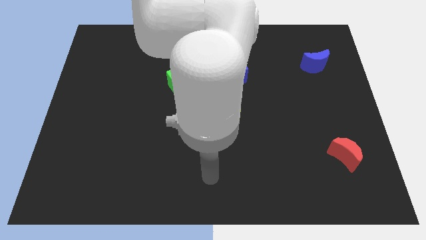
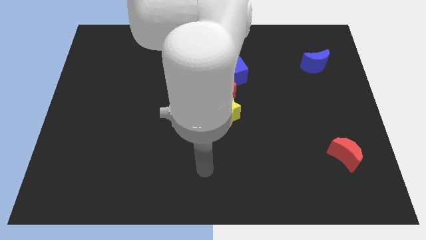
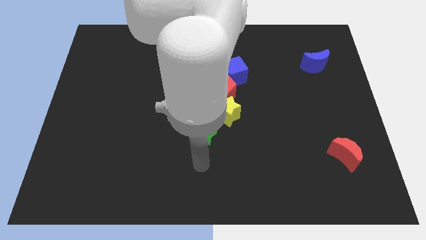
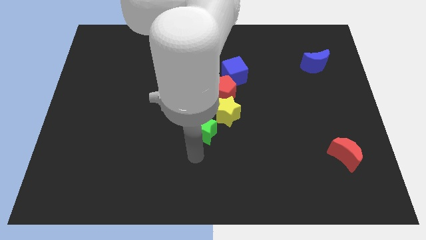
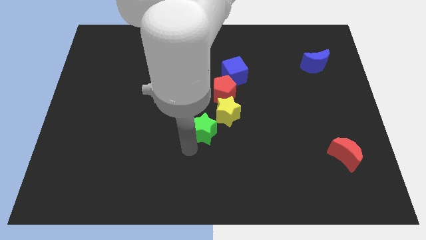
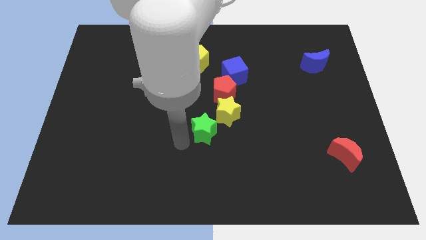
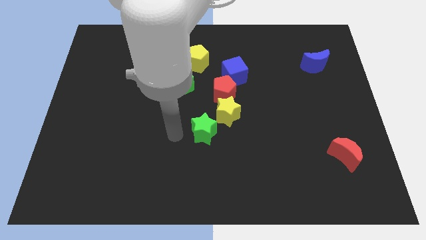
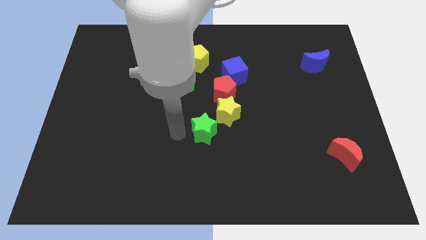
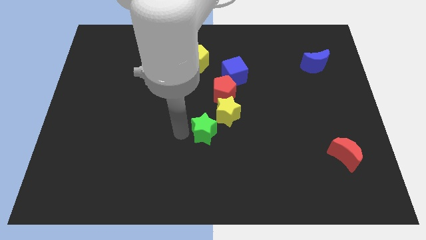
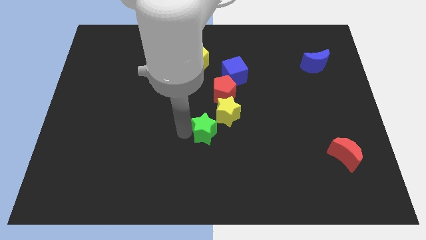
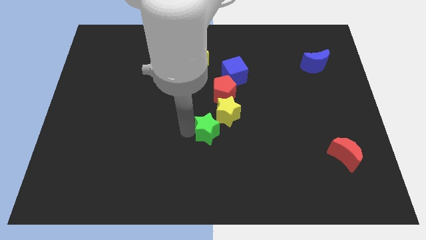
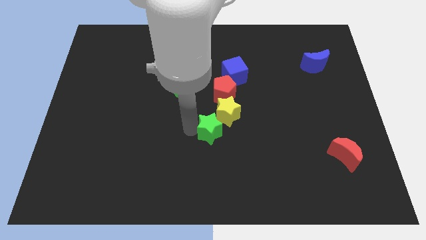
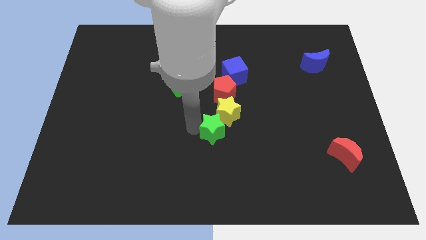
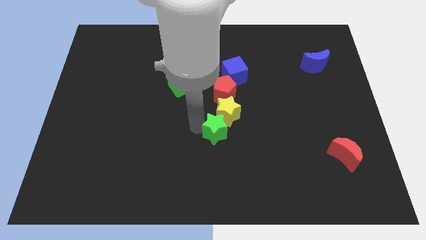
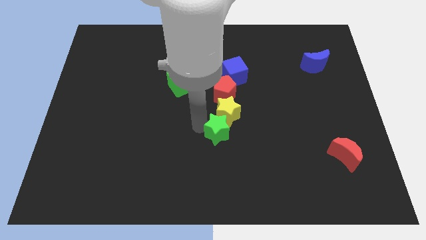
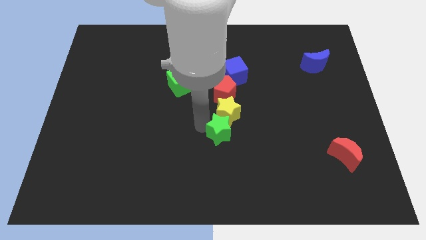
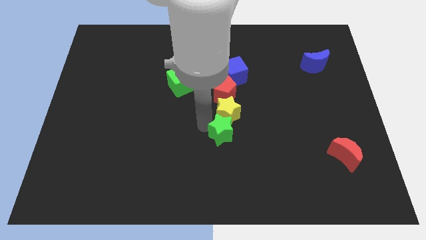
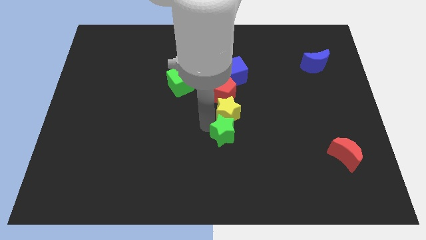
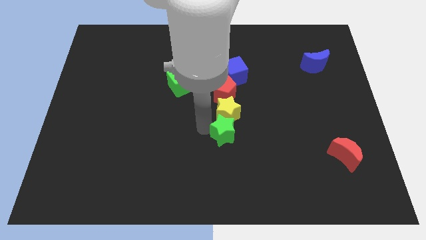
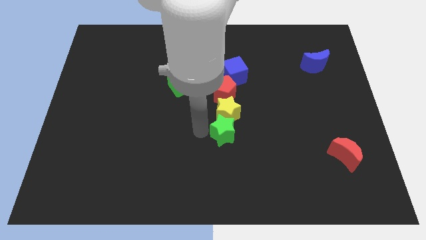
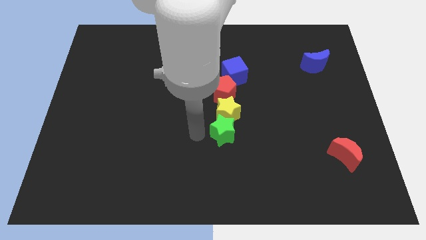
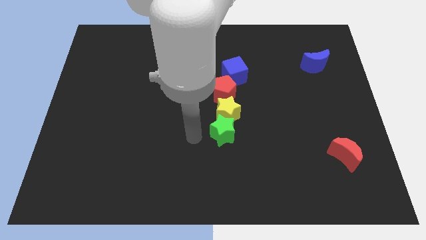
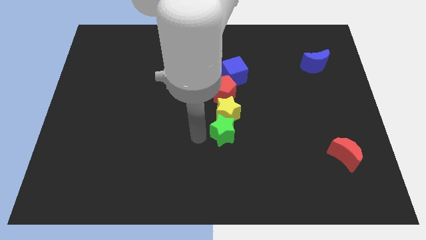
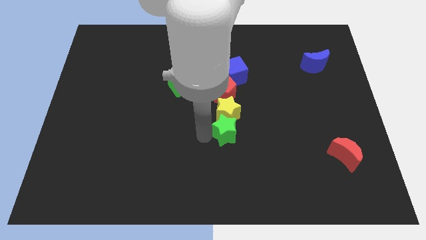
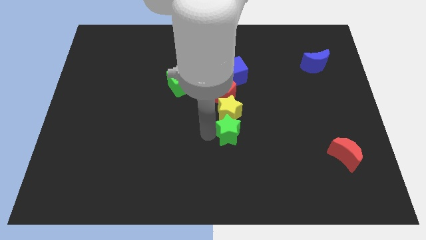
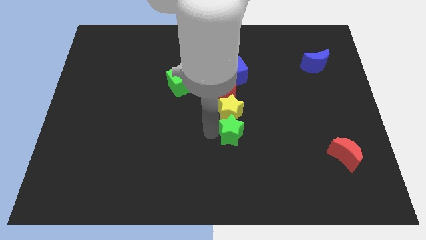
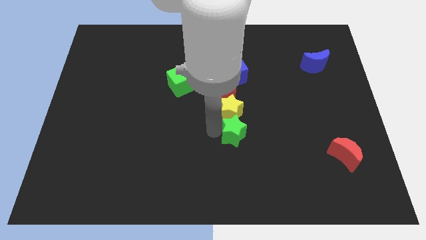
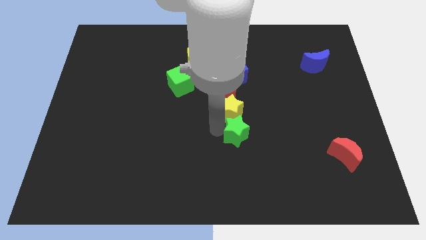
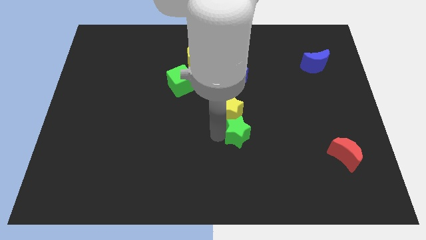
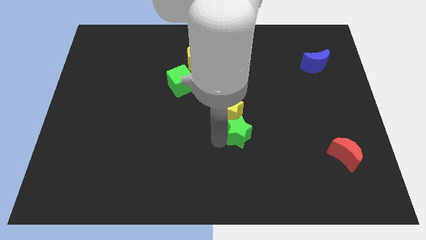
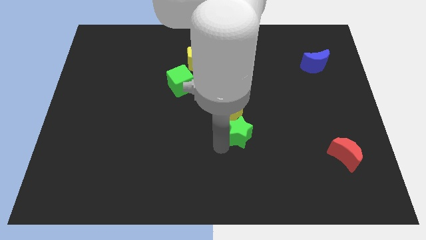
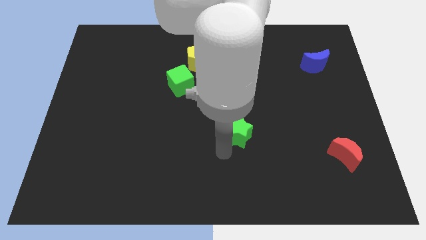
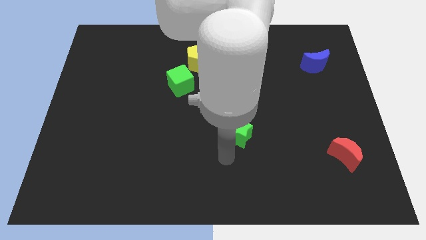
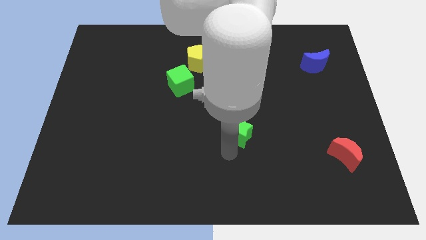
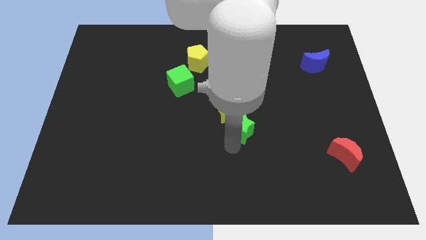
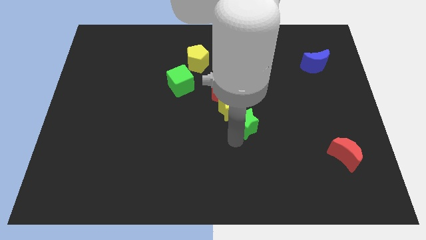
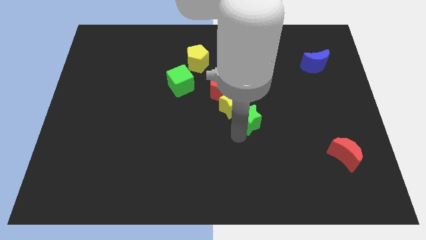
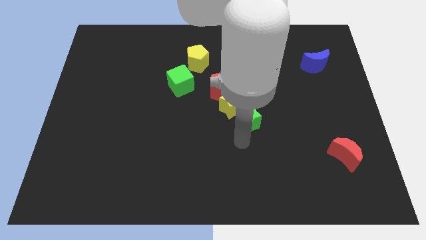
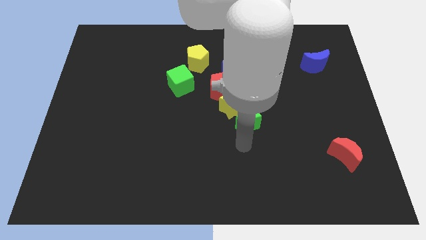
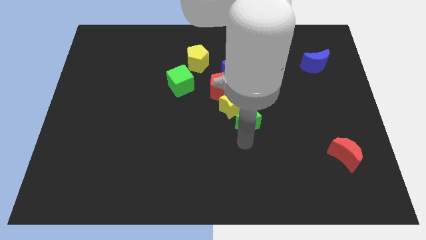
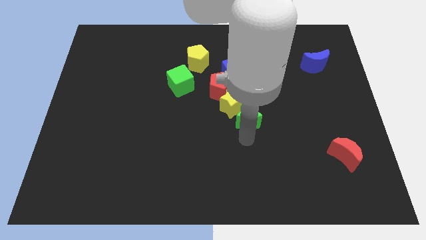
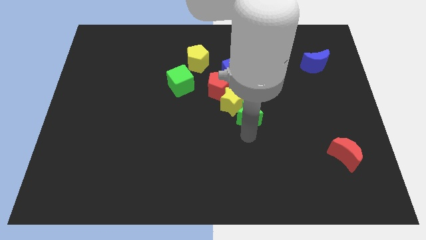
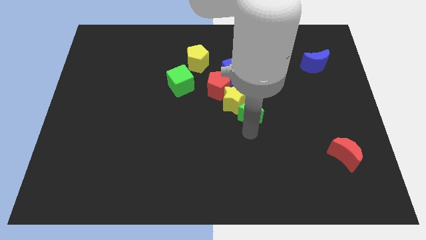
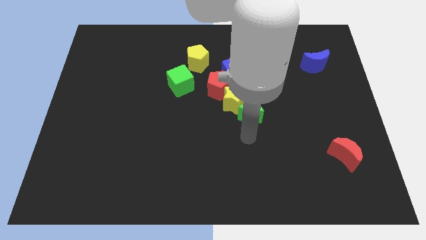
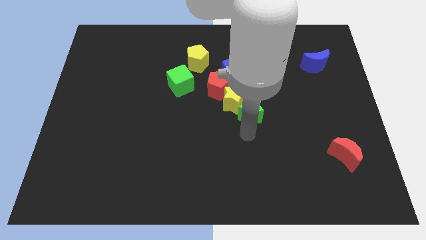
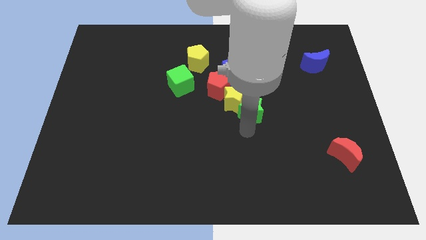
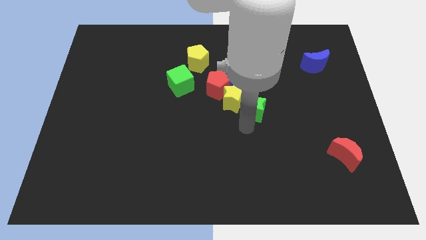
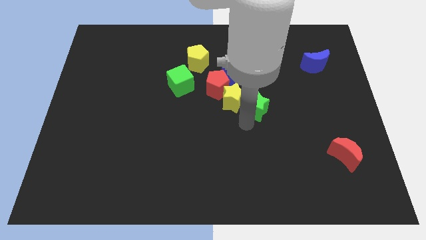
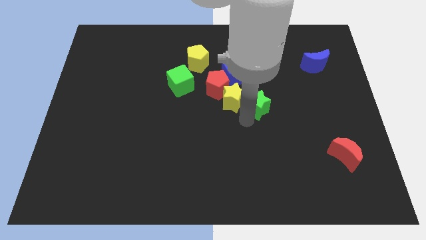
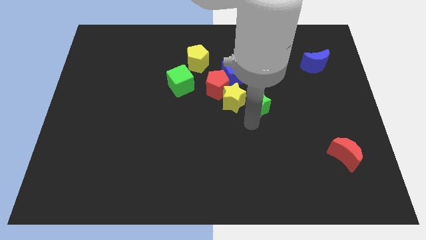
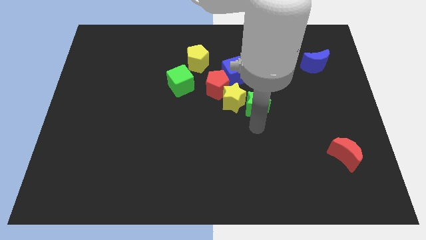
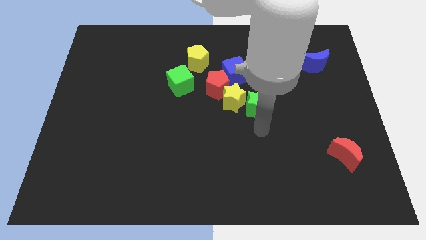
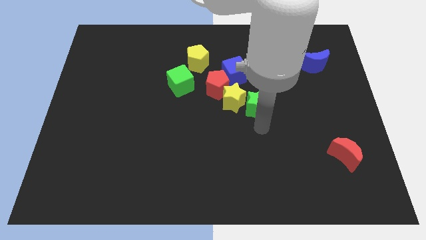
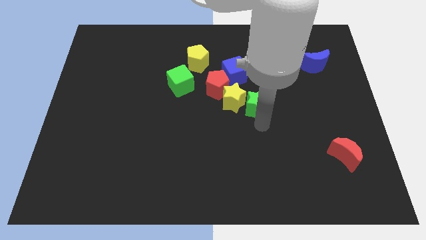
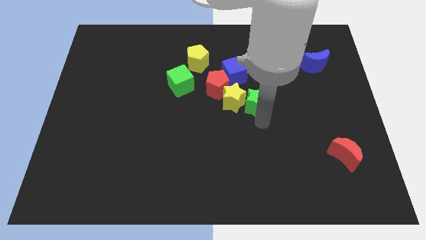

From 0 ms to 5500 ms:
push the green star diagonally up and to the right of the yellow star

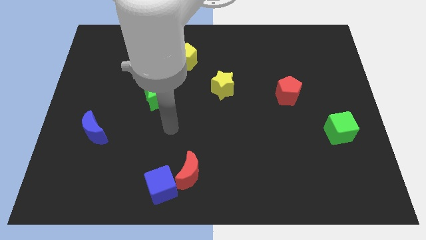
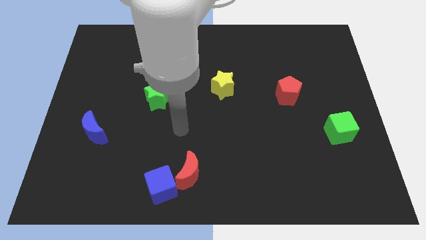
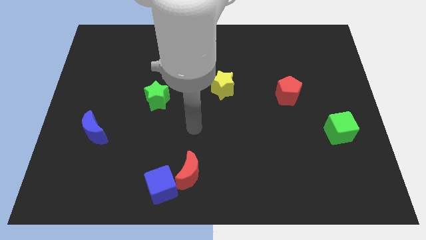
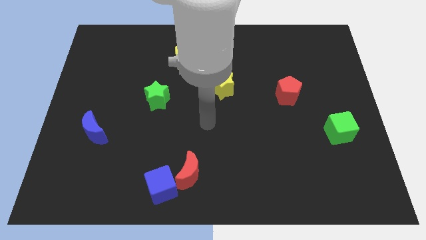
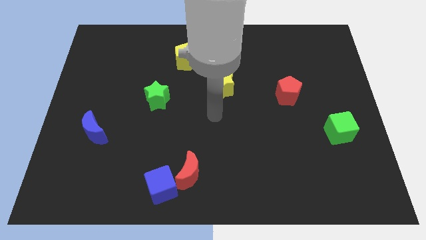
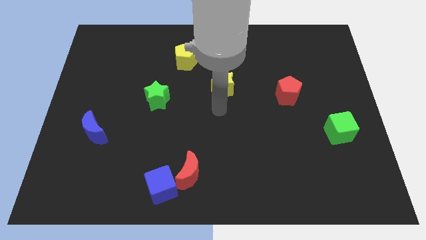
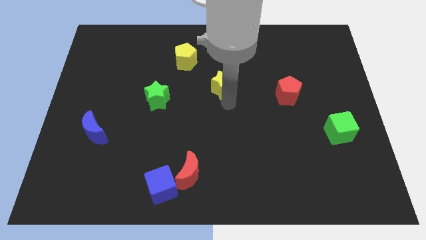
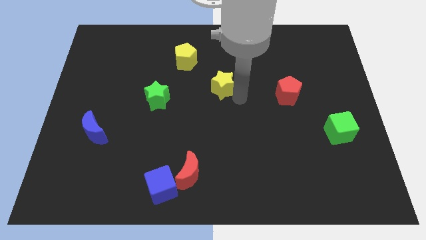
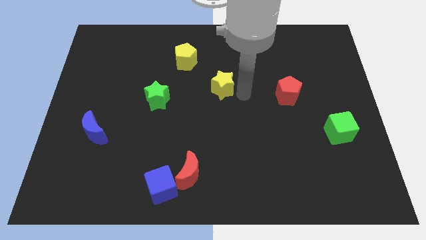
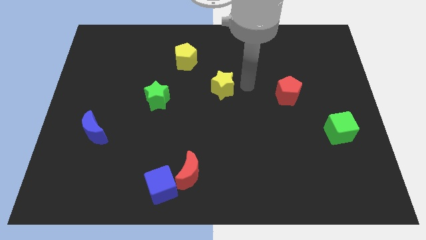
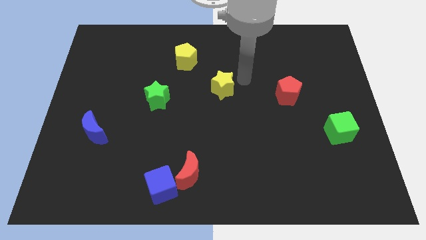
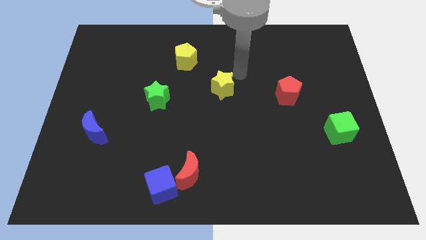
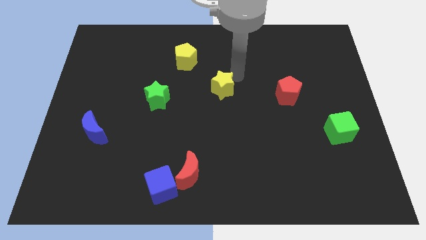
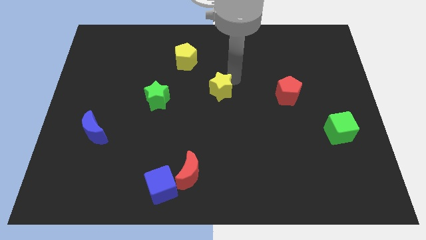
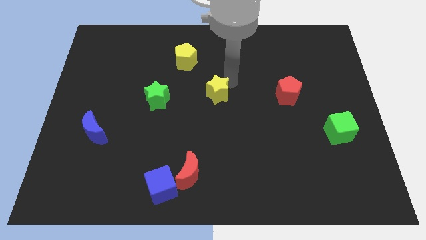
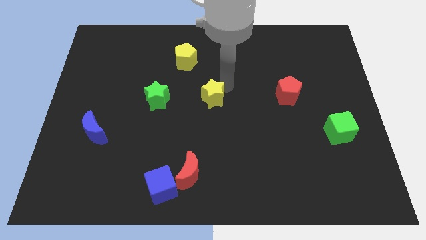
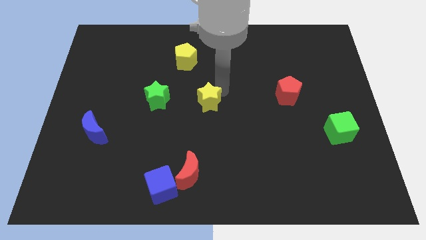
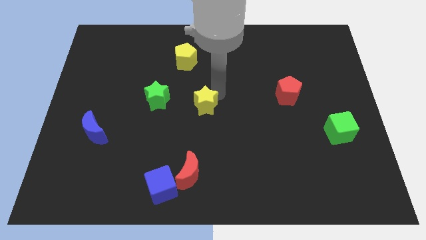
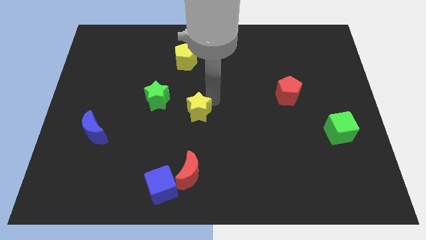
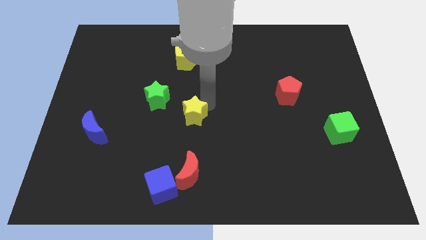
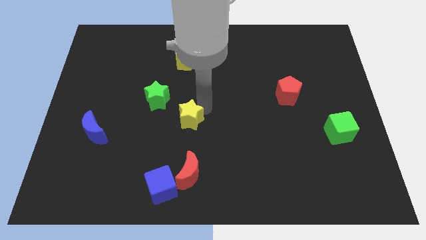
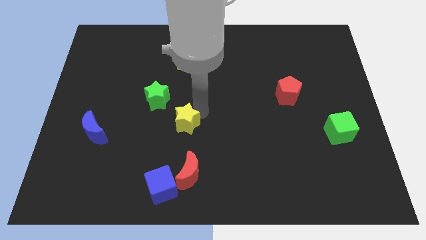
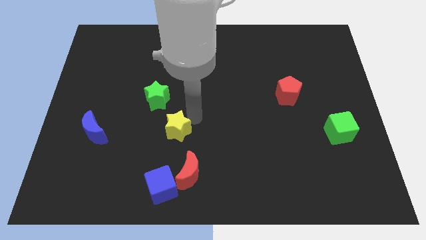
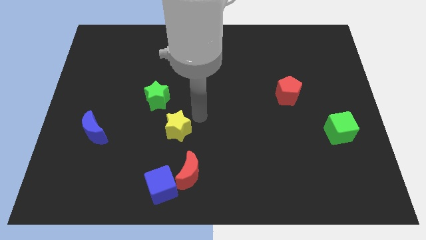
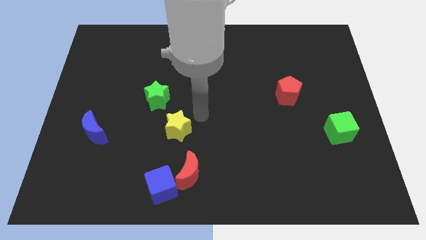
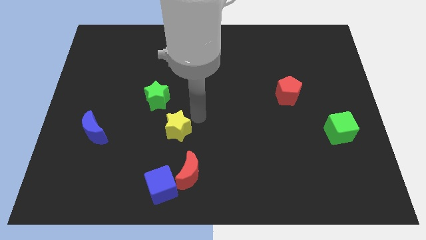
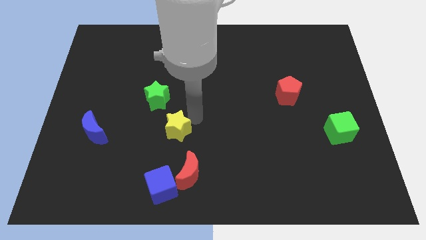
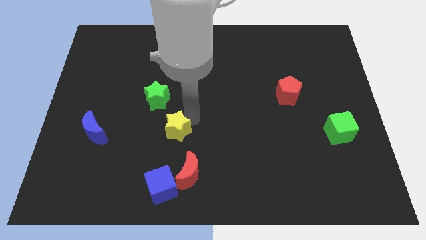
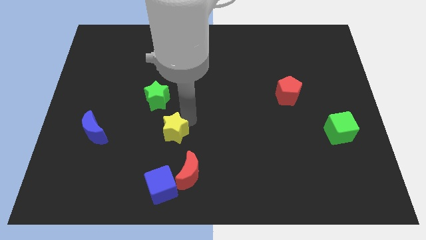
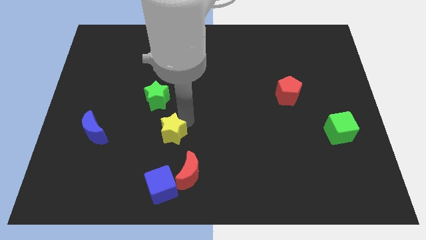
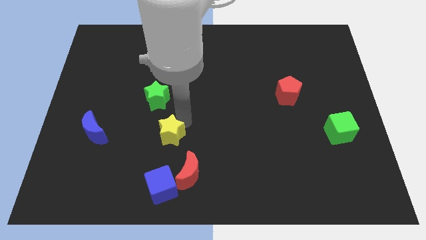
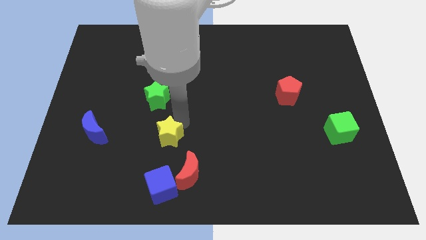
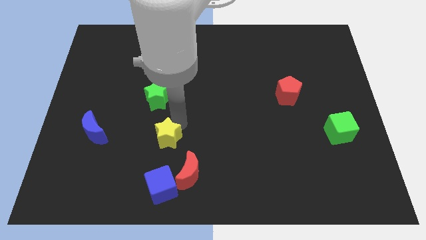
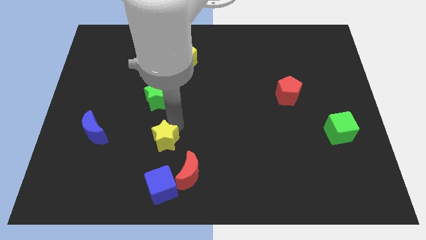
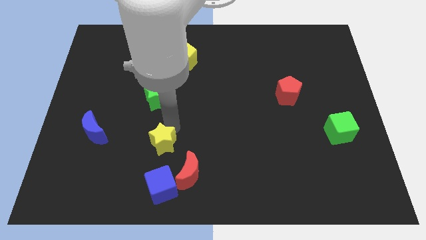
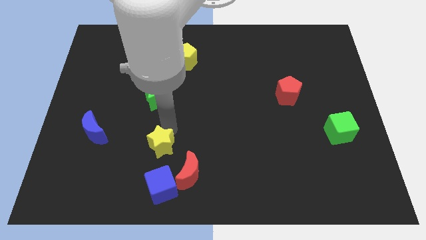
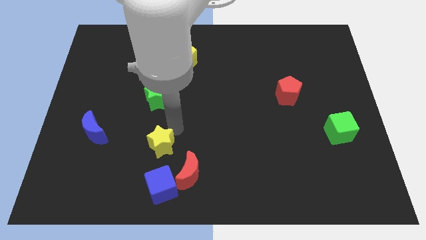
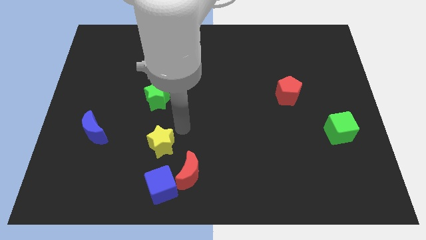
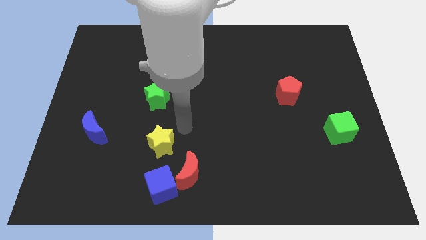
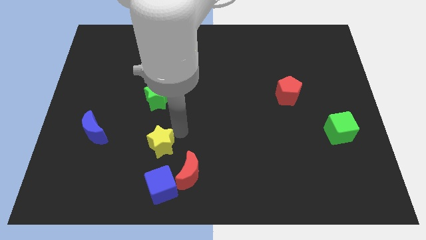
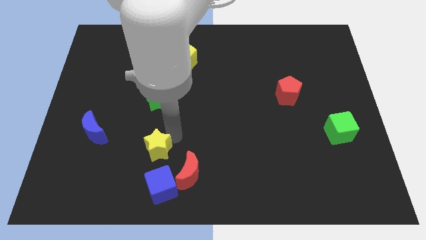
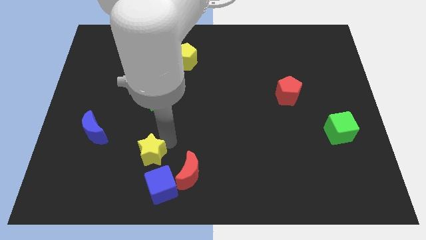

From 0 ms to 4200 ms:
slide the yellow star diagonally up and to the left of the blue cube
